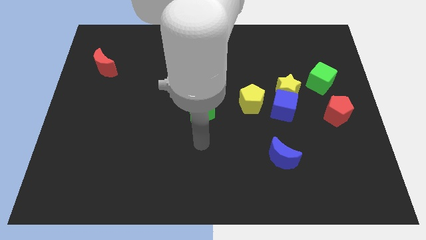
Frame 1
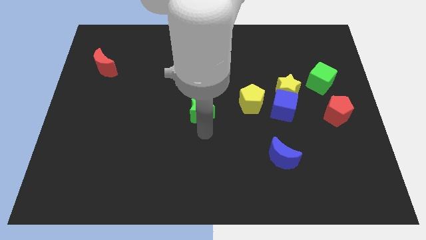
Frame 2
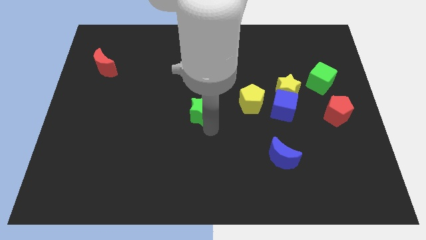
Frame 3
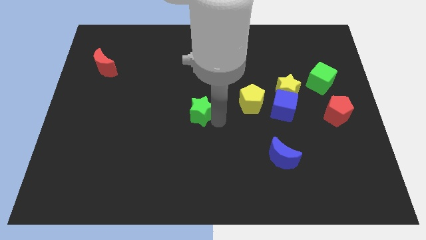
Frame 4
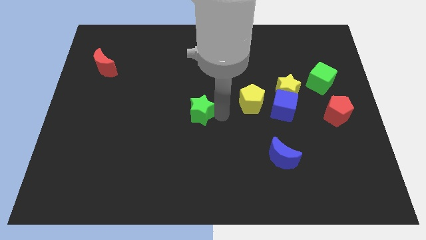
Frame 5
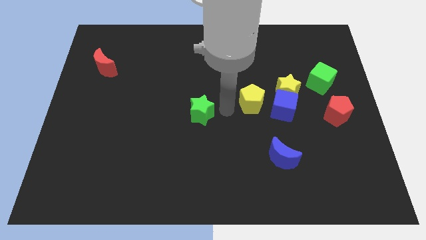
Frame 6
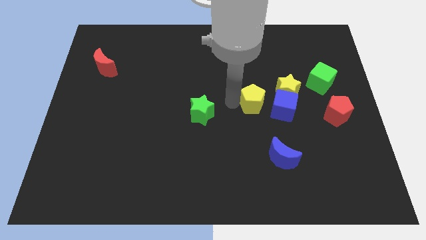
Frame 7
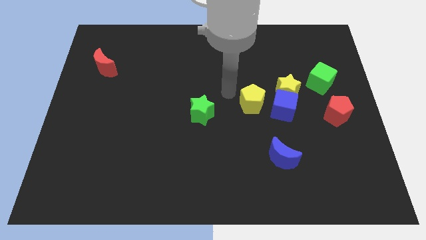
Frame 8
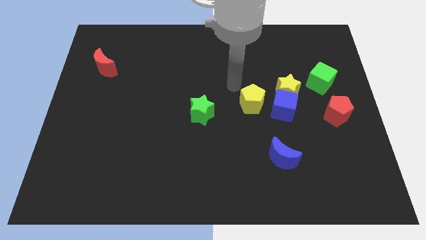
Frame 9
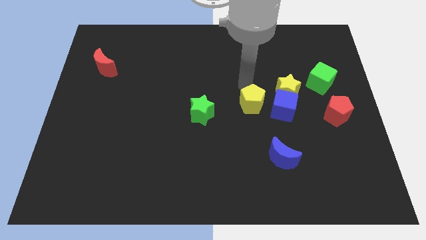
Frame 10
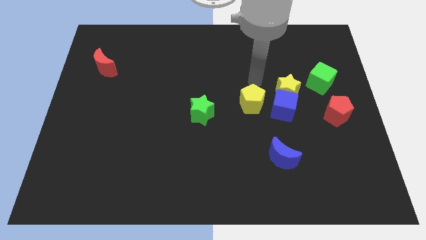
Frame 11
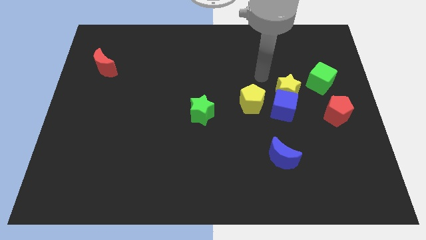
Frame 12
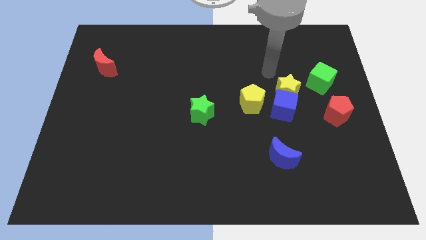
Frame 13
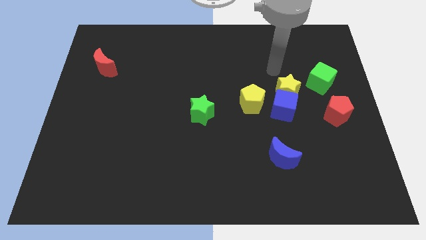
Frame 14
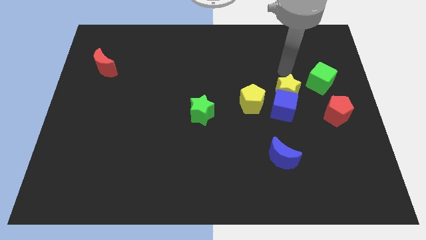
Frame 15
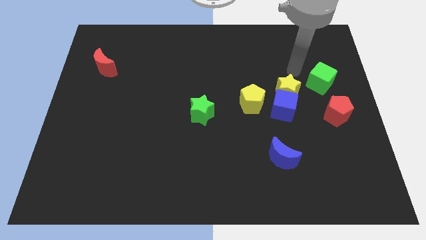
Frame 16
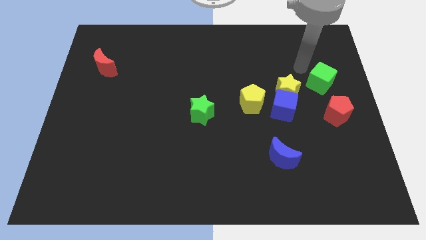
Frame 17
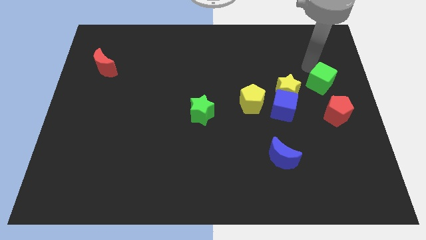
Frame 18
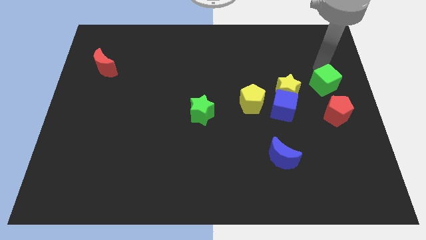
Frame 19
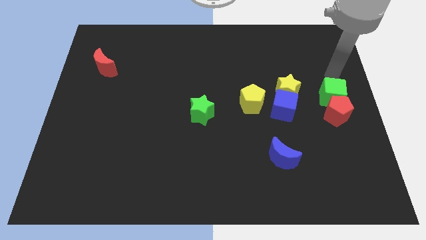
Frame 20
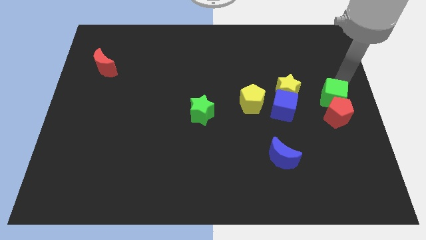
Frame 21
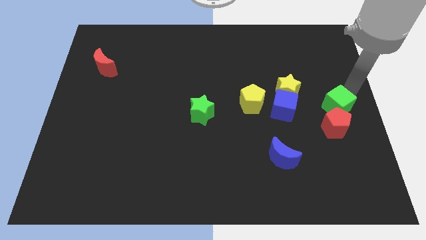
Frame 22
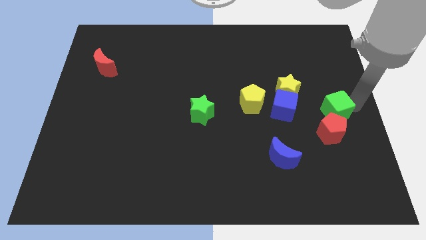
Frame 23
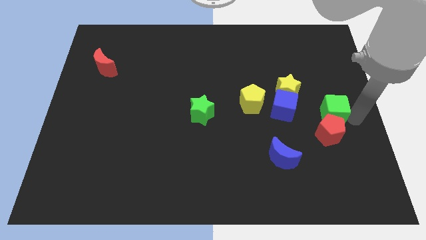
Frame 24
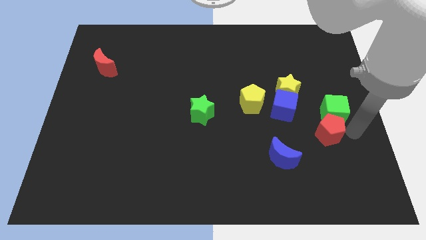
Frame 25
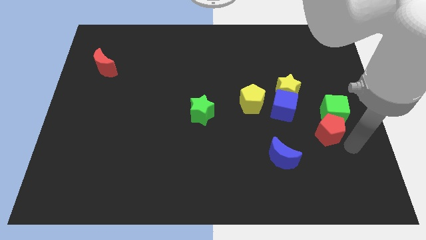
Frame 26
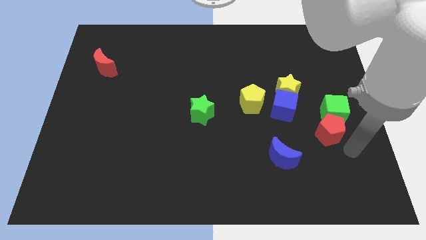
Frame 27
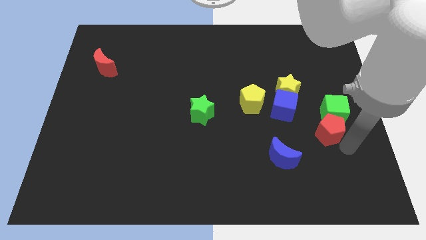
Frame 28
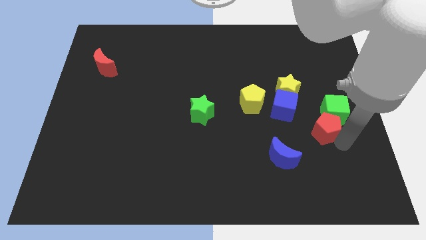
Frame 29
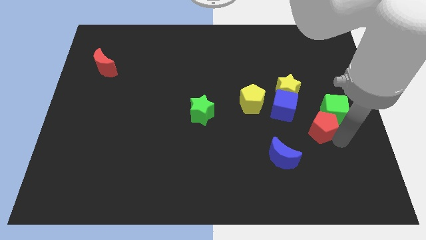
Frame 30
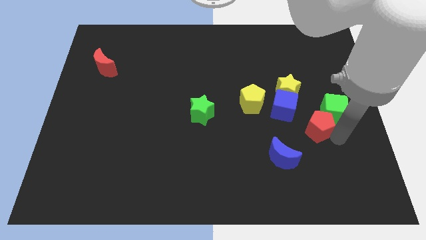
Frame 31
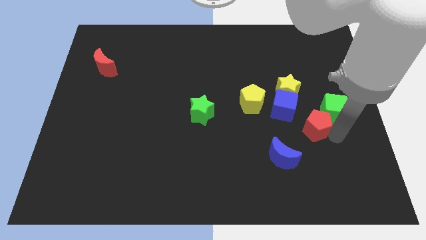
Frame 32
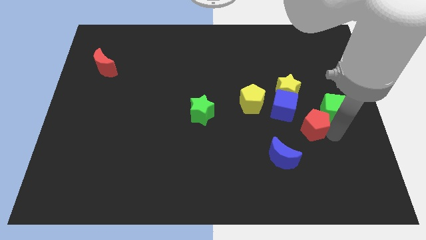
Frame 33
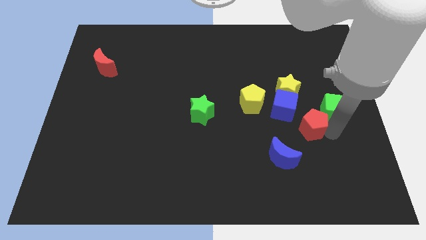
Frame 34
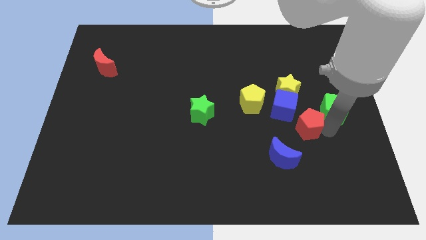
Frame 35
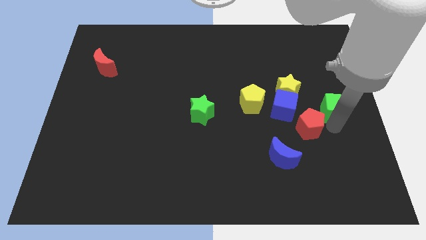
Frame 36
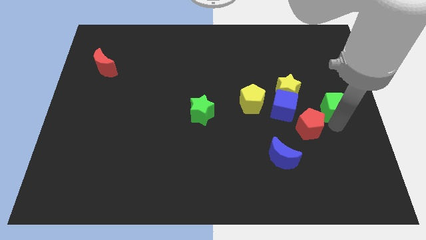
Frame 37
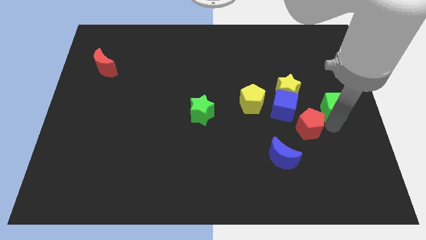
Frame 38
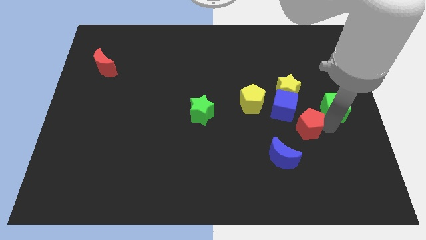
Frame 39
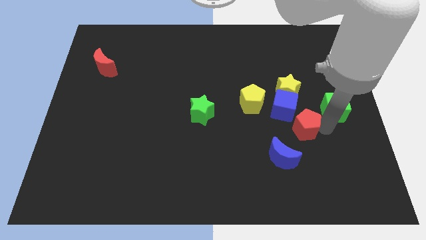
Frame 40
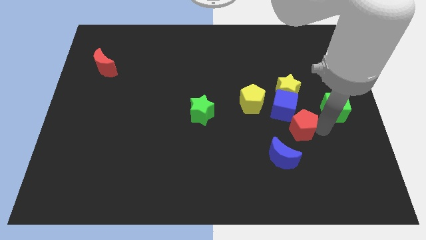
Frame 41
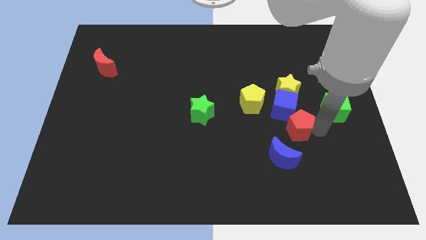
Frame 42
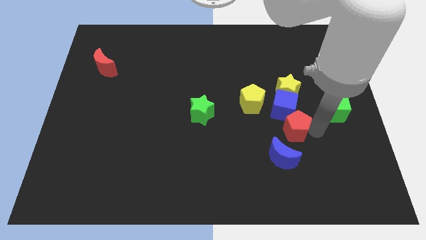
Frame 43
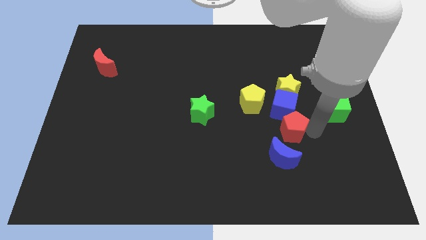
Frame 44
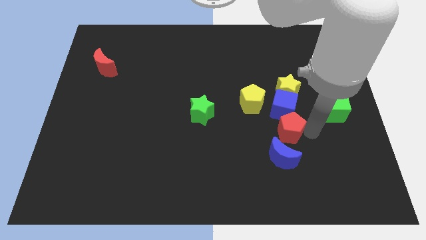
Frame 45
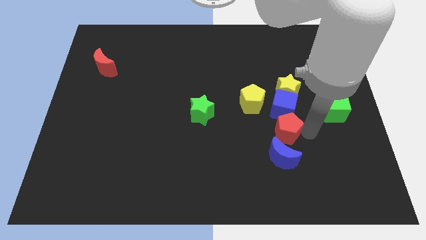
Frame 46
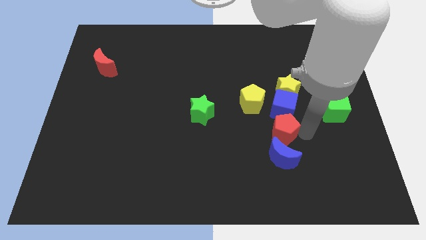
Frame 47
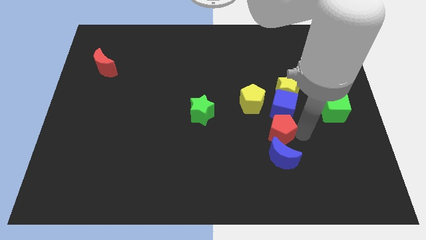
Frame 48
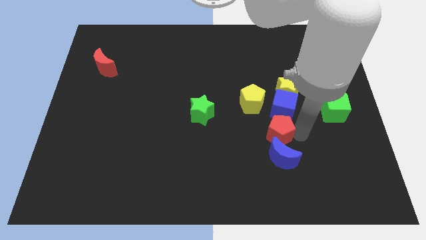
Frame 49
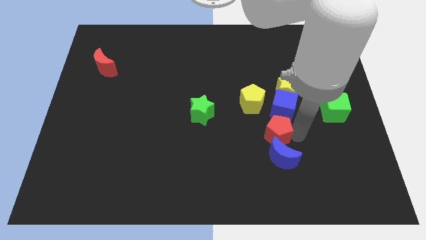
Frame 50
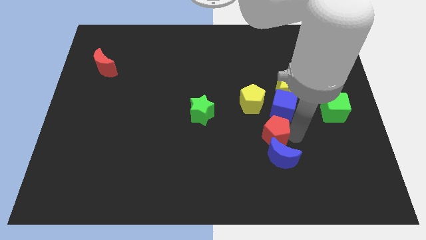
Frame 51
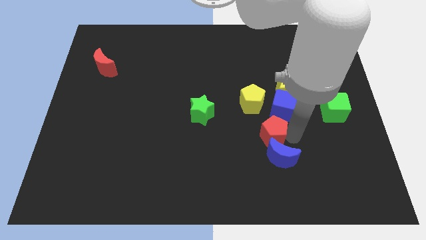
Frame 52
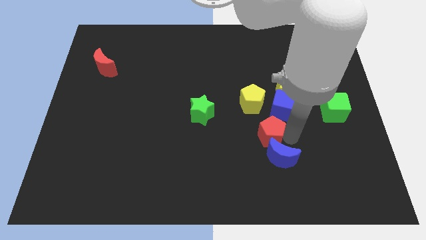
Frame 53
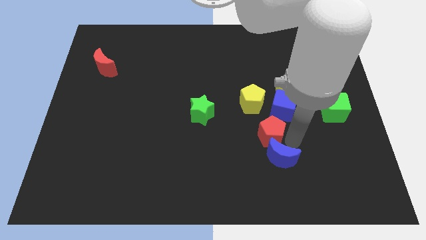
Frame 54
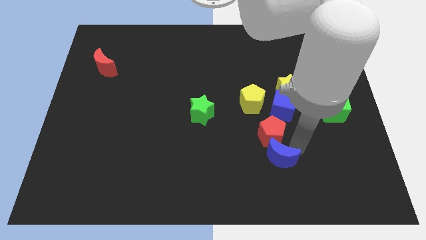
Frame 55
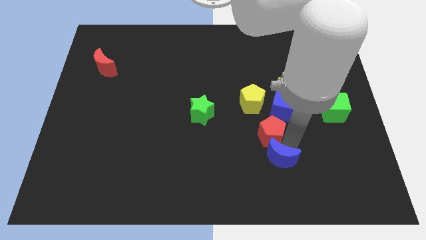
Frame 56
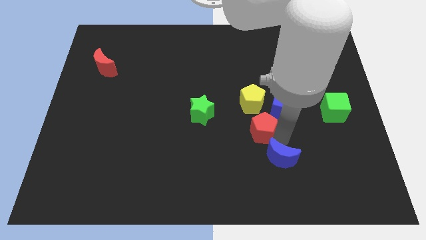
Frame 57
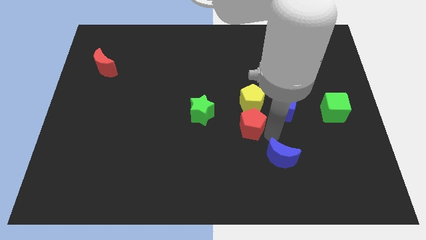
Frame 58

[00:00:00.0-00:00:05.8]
move the red pentagon to the center

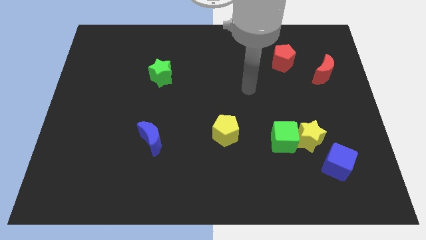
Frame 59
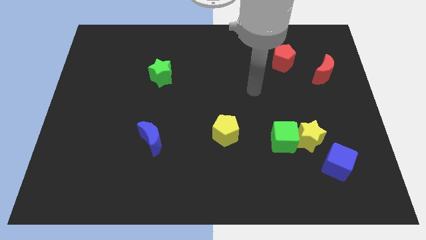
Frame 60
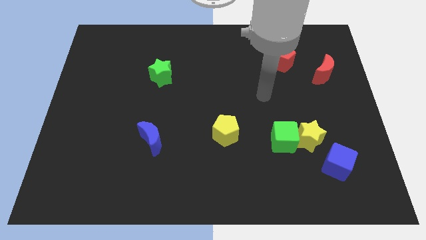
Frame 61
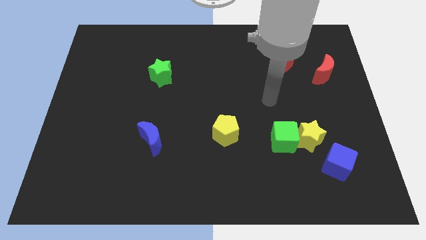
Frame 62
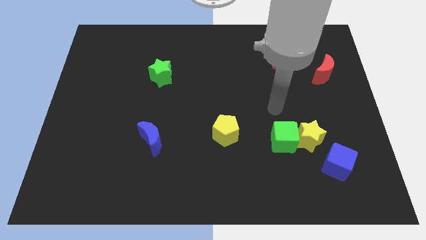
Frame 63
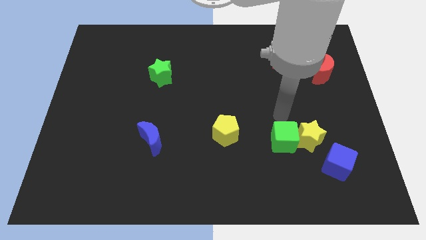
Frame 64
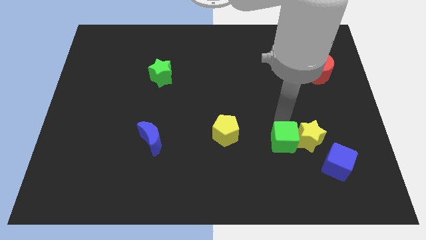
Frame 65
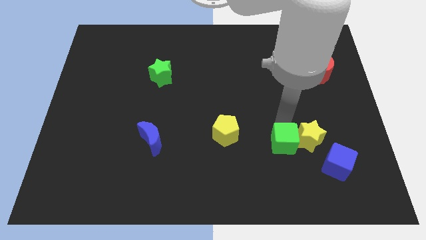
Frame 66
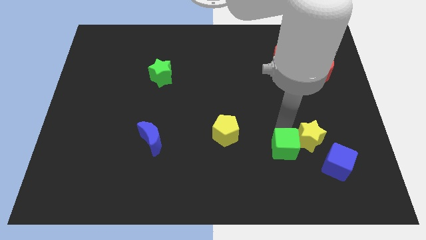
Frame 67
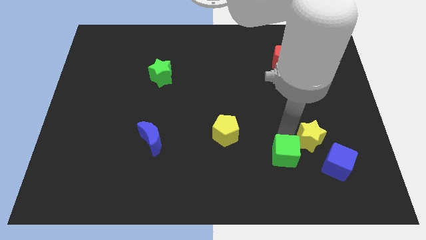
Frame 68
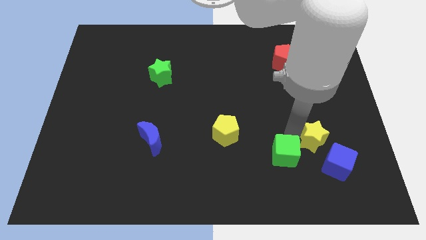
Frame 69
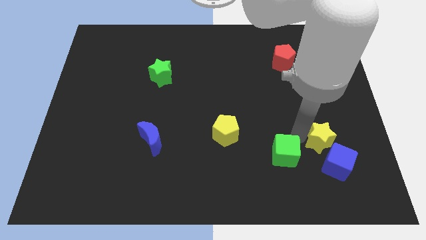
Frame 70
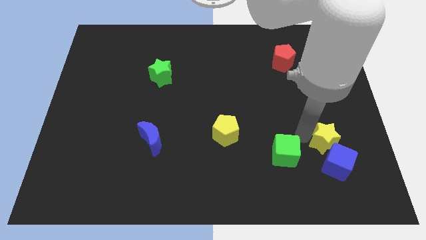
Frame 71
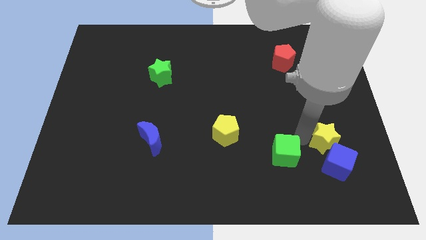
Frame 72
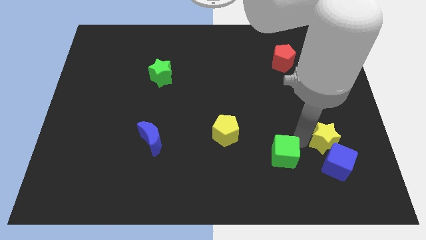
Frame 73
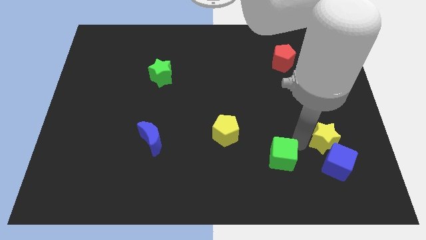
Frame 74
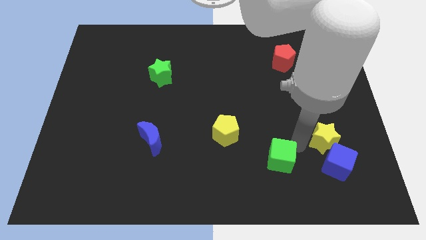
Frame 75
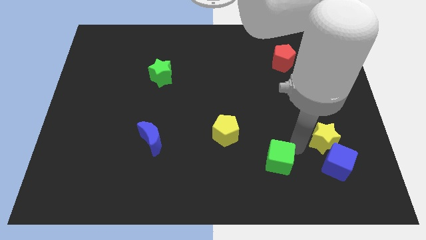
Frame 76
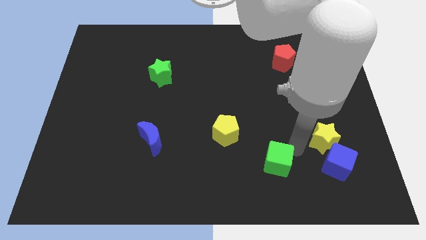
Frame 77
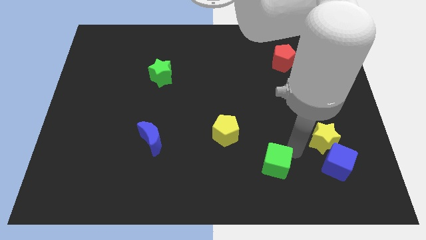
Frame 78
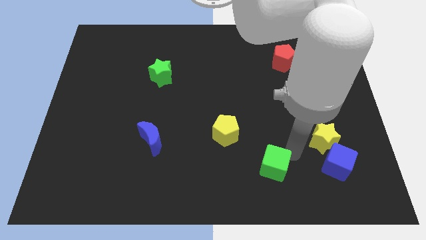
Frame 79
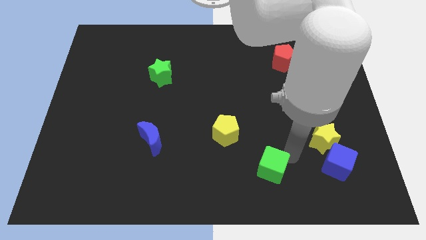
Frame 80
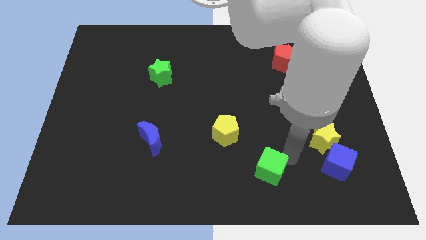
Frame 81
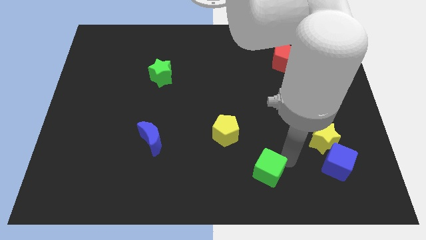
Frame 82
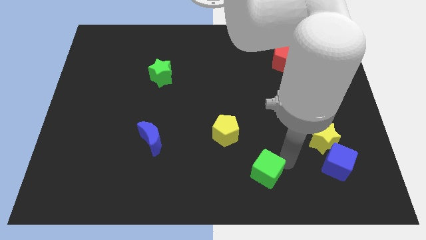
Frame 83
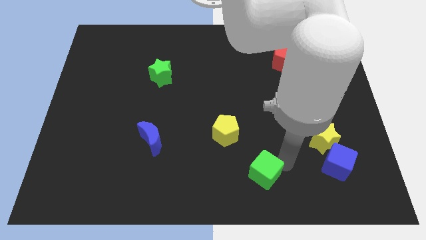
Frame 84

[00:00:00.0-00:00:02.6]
push the green cube to the bottom
